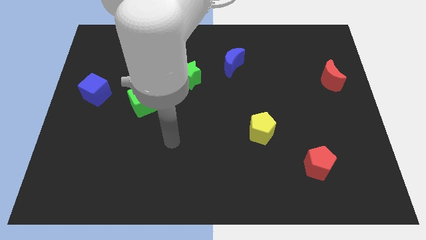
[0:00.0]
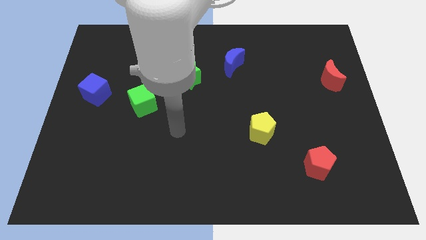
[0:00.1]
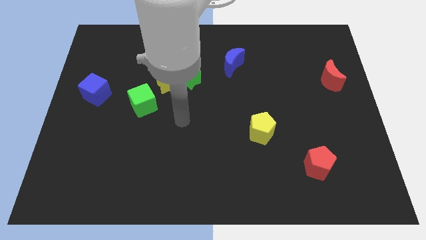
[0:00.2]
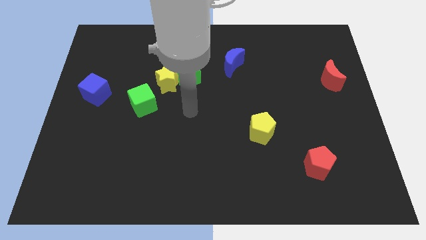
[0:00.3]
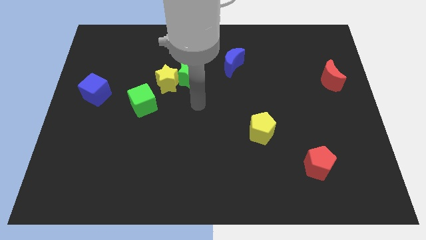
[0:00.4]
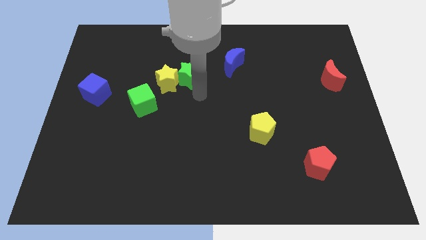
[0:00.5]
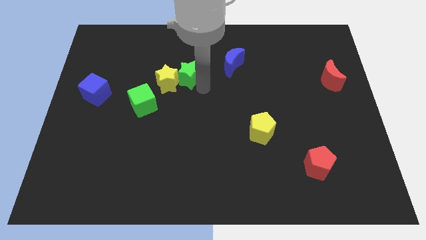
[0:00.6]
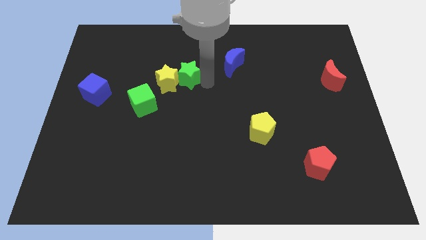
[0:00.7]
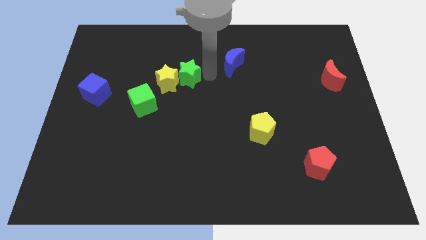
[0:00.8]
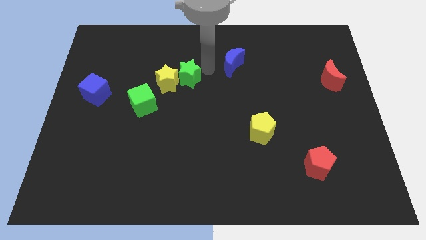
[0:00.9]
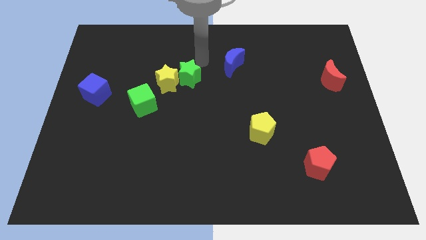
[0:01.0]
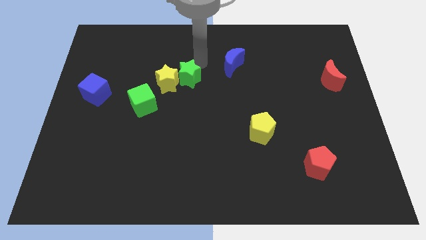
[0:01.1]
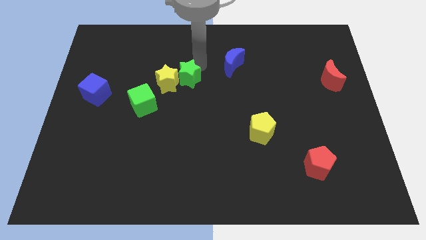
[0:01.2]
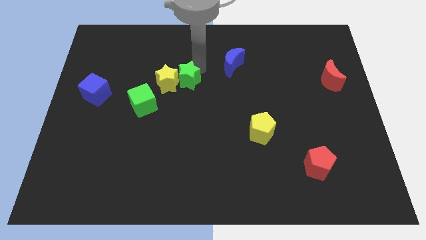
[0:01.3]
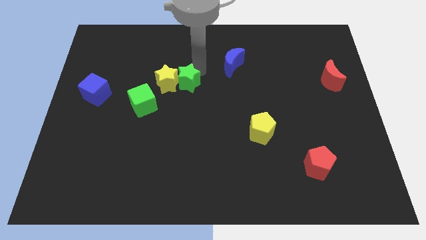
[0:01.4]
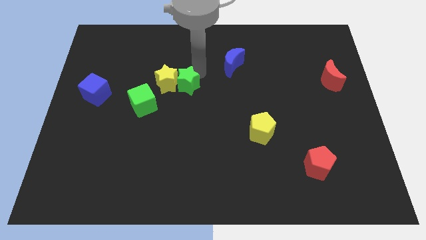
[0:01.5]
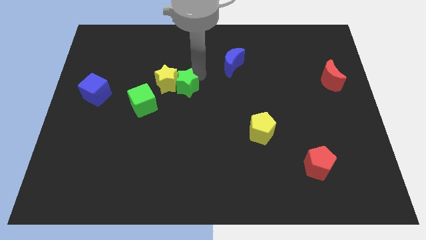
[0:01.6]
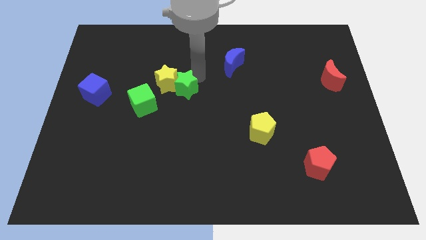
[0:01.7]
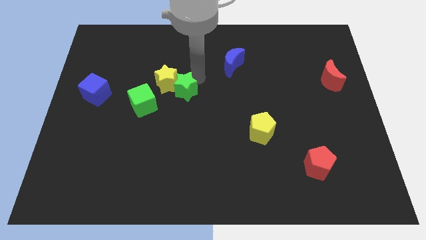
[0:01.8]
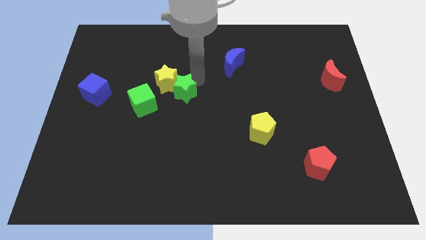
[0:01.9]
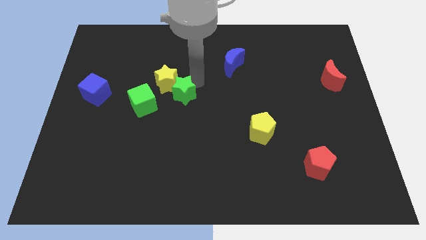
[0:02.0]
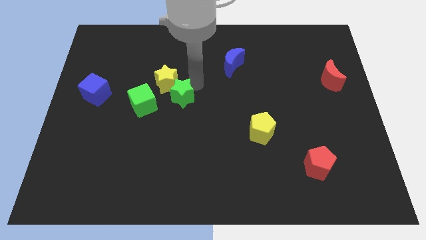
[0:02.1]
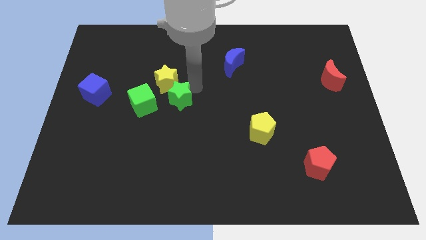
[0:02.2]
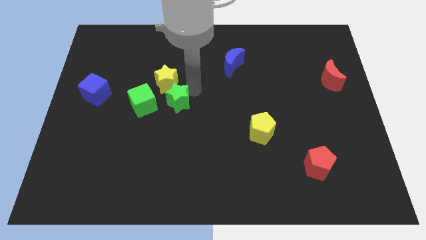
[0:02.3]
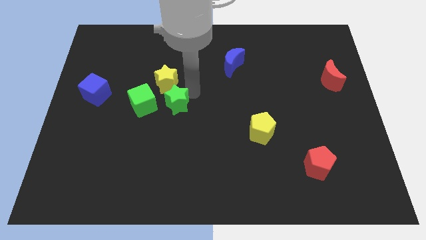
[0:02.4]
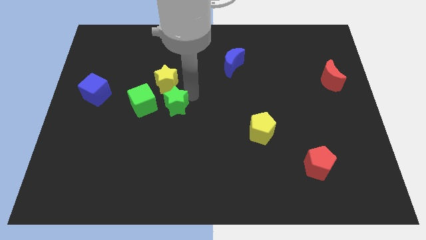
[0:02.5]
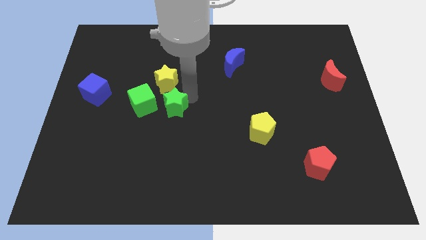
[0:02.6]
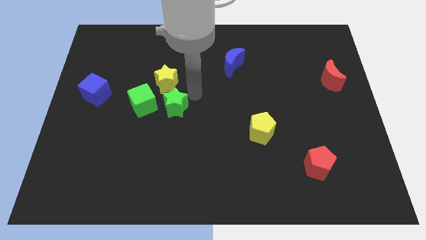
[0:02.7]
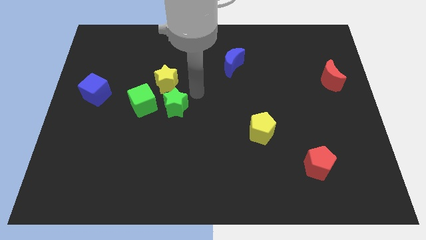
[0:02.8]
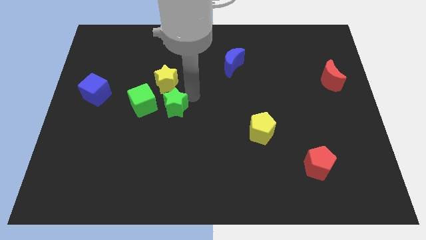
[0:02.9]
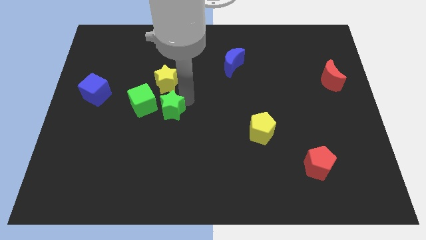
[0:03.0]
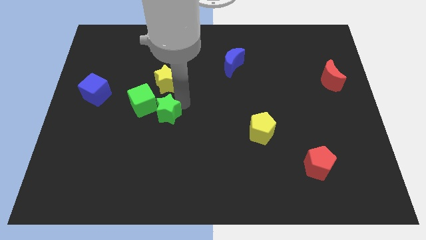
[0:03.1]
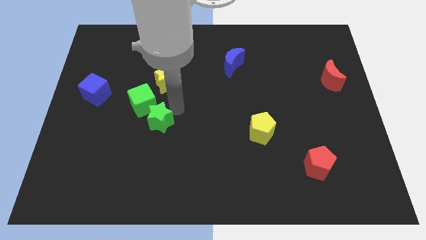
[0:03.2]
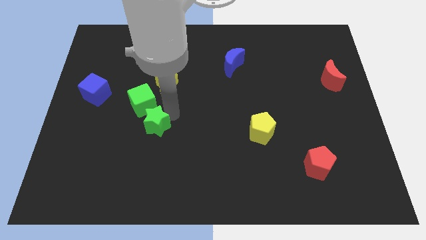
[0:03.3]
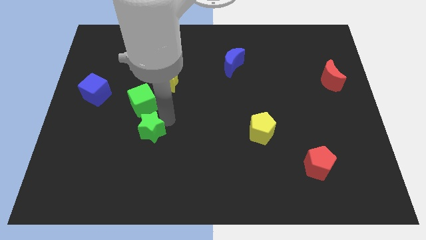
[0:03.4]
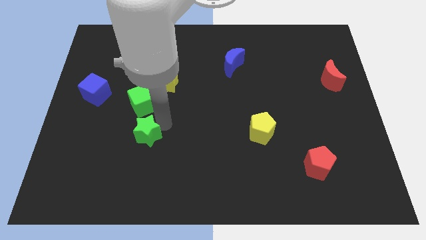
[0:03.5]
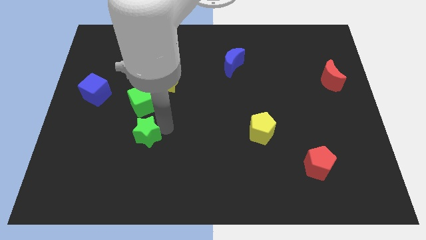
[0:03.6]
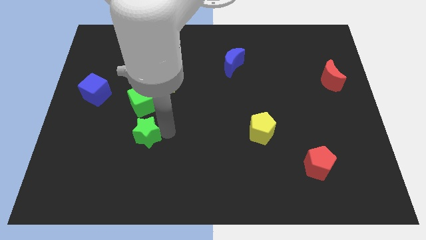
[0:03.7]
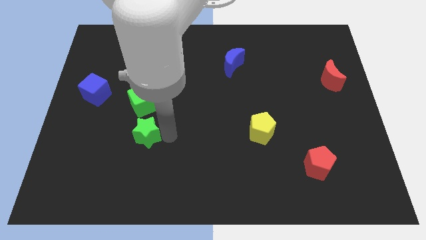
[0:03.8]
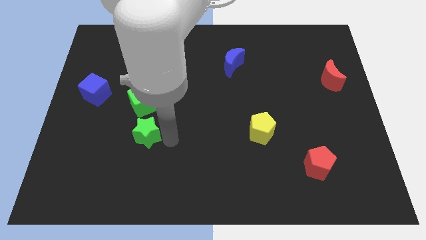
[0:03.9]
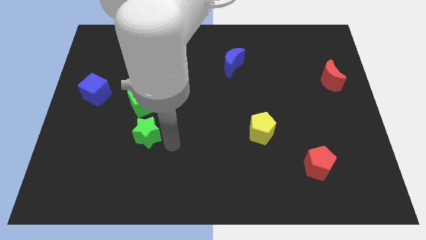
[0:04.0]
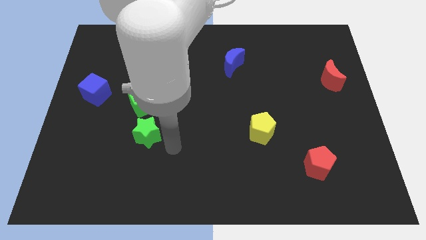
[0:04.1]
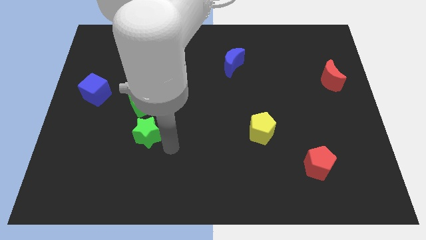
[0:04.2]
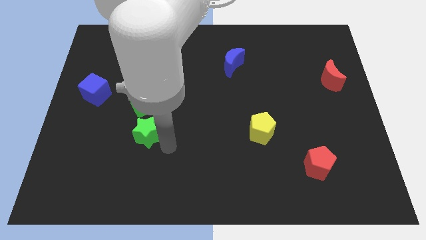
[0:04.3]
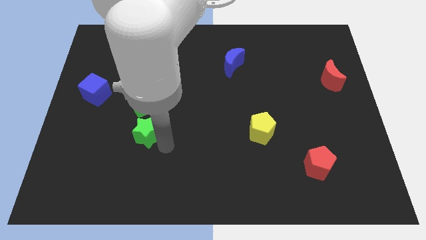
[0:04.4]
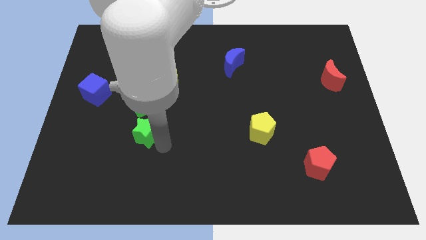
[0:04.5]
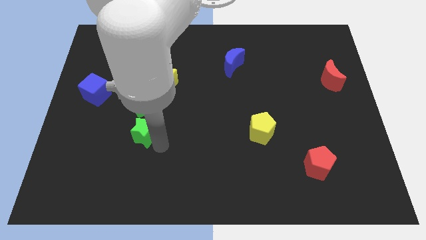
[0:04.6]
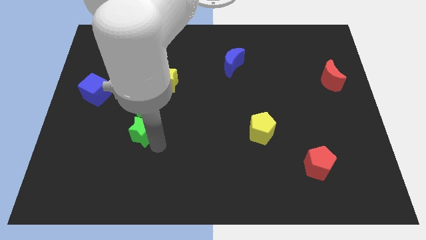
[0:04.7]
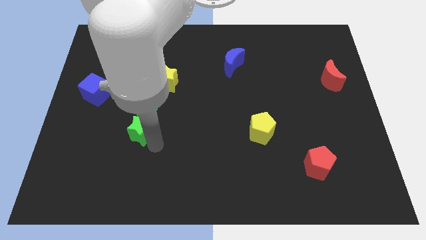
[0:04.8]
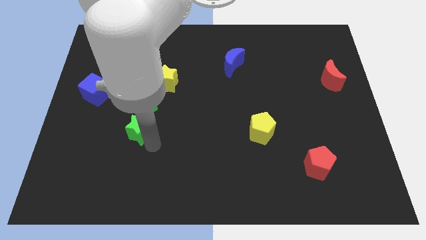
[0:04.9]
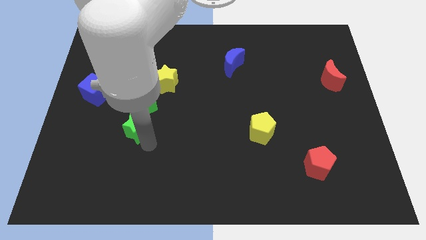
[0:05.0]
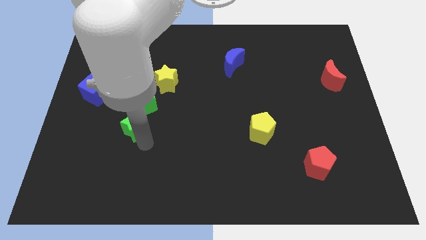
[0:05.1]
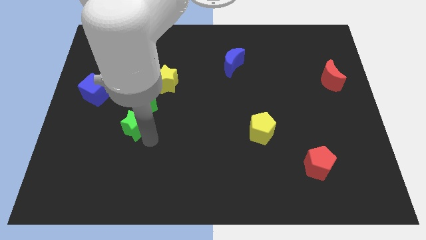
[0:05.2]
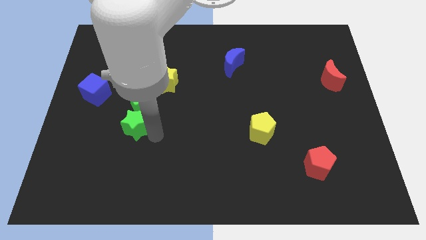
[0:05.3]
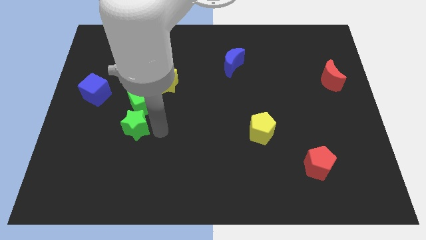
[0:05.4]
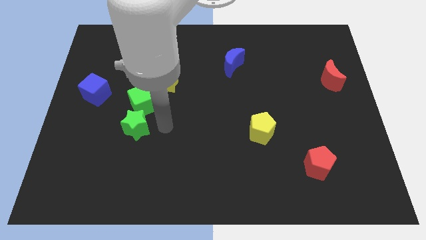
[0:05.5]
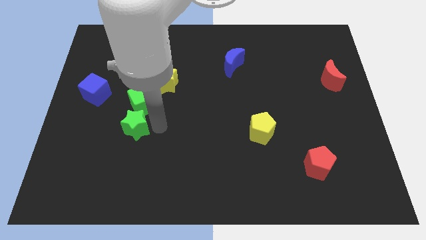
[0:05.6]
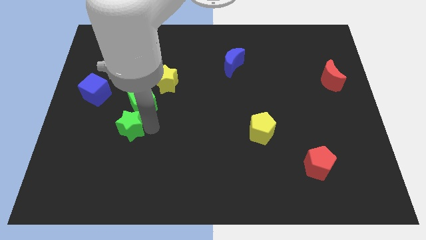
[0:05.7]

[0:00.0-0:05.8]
push the green star diagonally down and left

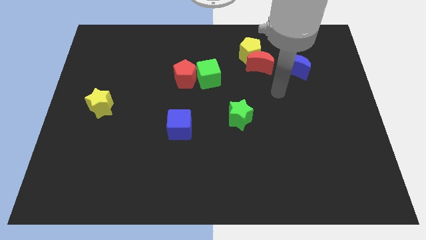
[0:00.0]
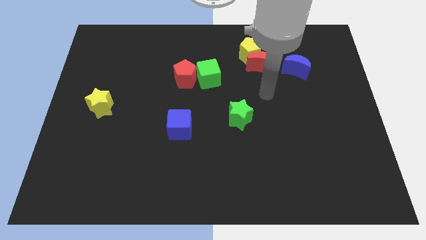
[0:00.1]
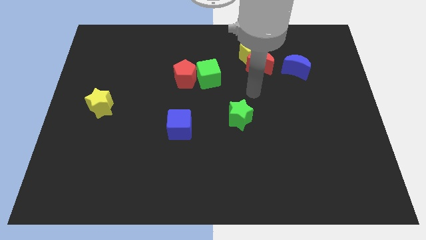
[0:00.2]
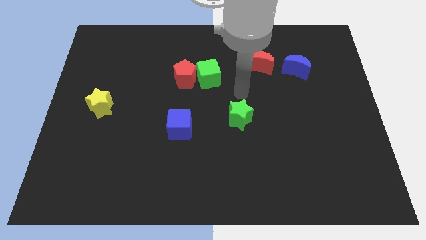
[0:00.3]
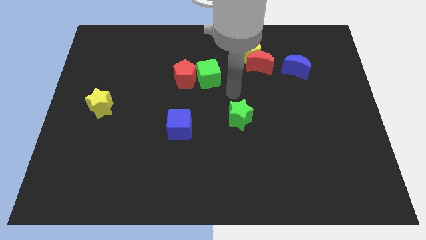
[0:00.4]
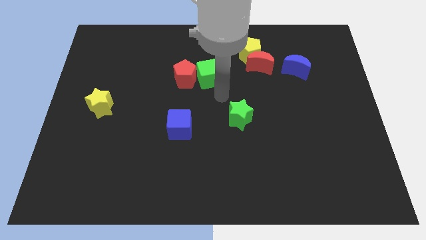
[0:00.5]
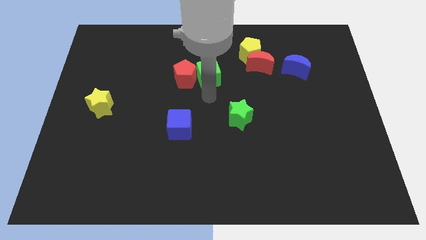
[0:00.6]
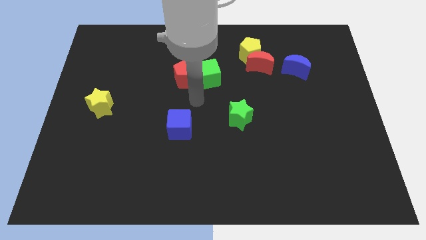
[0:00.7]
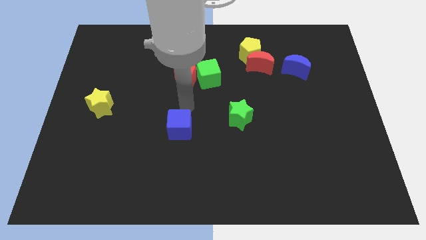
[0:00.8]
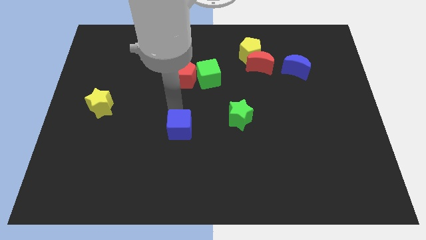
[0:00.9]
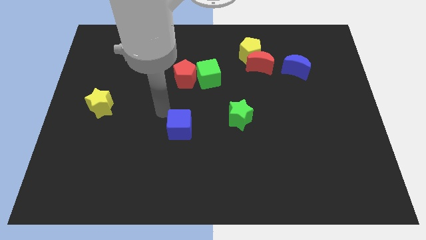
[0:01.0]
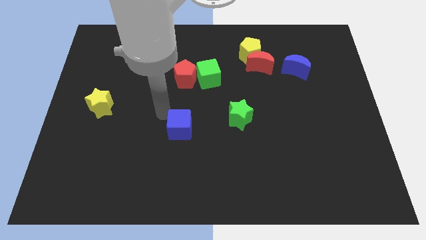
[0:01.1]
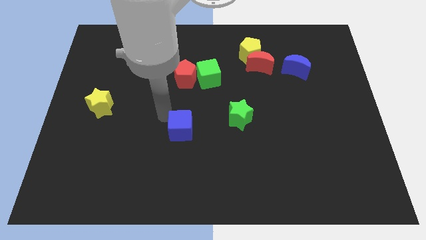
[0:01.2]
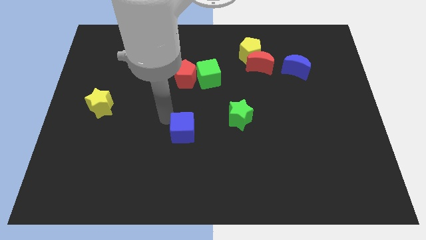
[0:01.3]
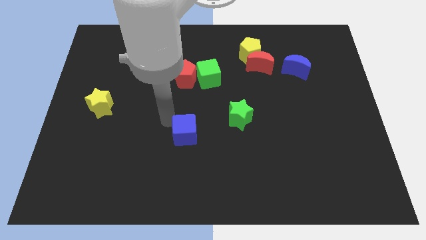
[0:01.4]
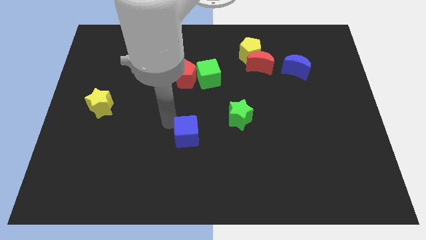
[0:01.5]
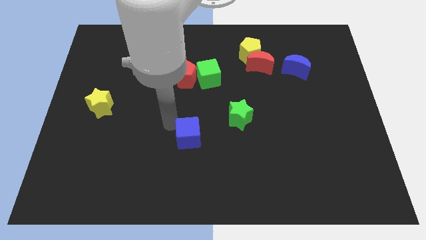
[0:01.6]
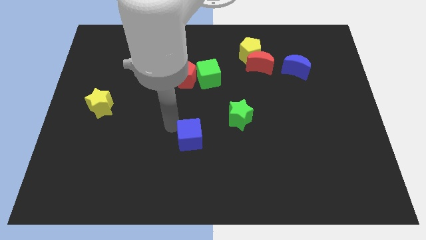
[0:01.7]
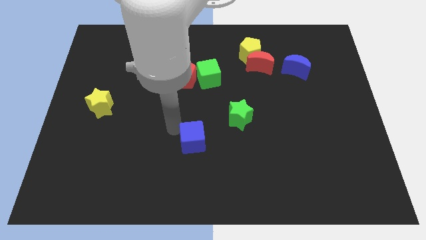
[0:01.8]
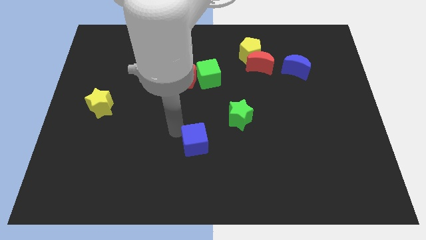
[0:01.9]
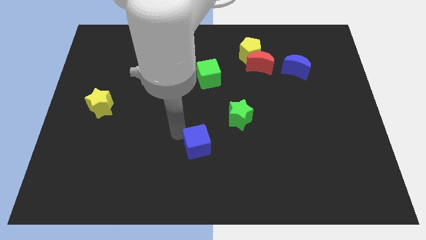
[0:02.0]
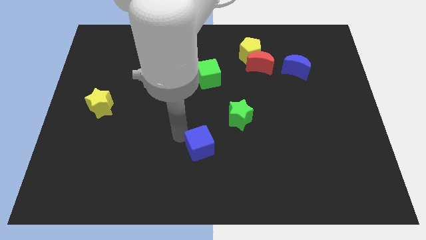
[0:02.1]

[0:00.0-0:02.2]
slide the blue cube a little bit diagonally downwards and to the right
